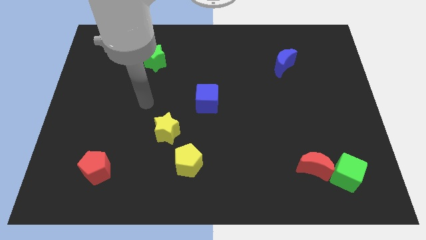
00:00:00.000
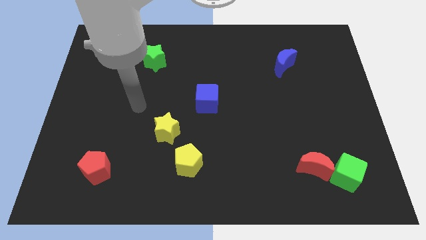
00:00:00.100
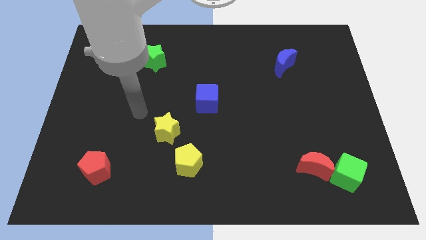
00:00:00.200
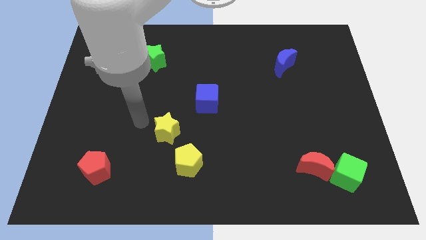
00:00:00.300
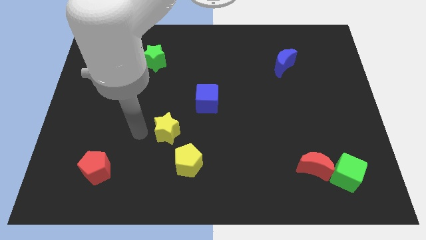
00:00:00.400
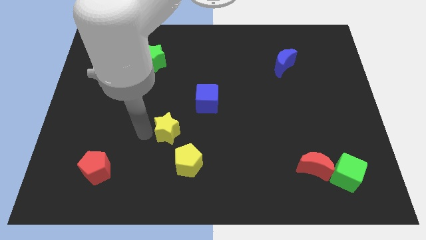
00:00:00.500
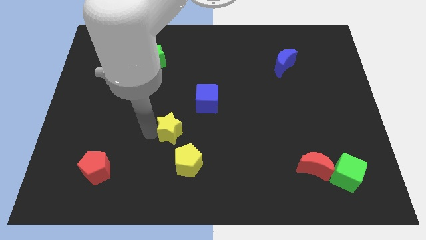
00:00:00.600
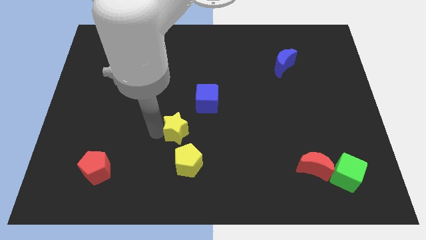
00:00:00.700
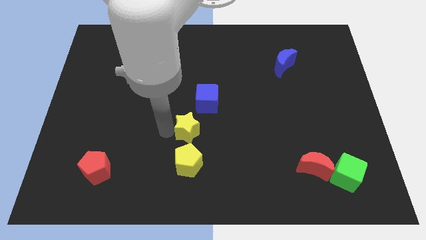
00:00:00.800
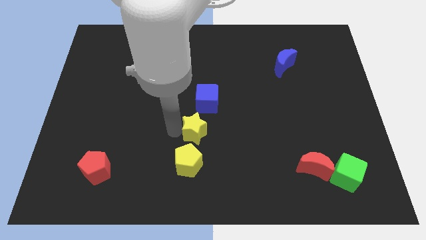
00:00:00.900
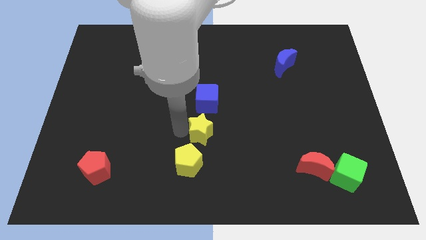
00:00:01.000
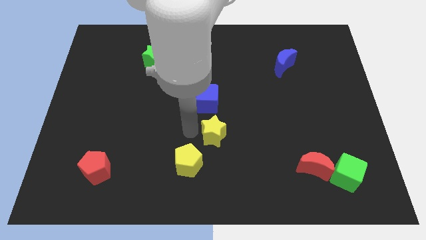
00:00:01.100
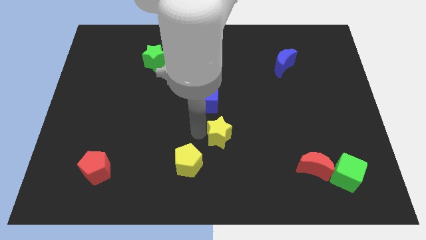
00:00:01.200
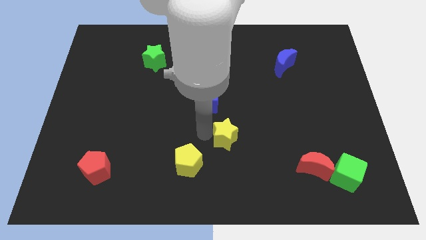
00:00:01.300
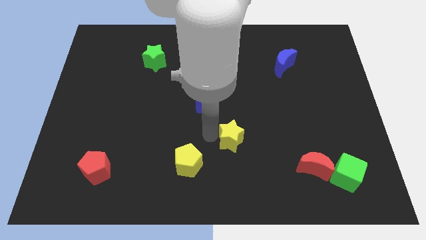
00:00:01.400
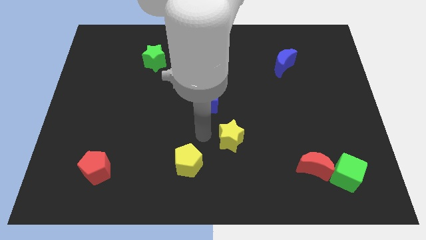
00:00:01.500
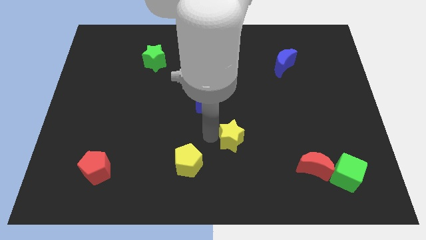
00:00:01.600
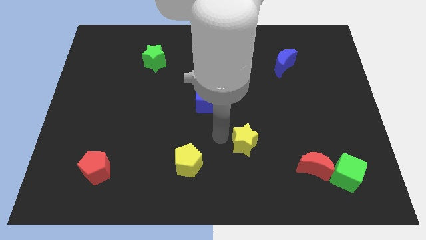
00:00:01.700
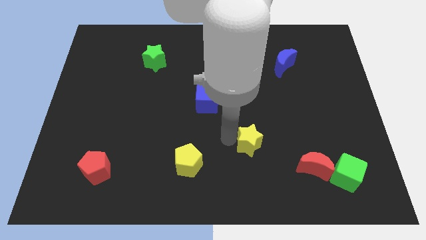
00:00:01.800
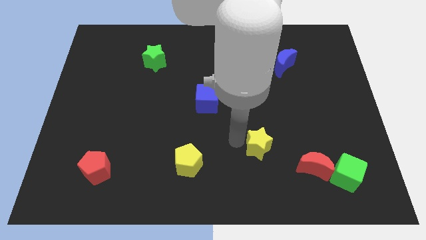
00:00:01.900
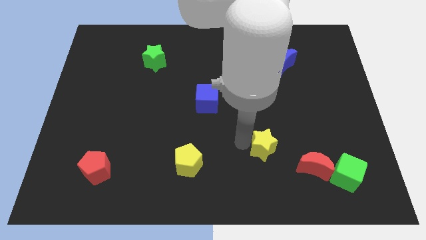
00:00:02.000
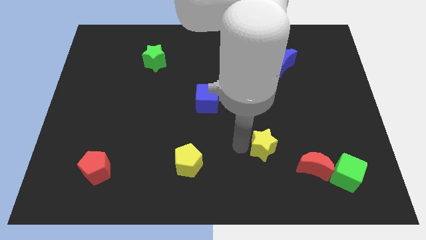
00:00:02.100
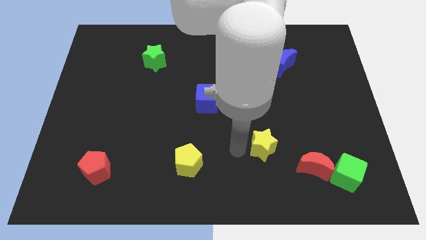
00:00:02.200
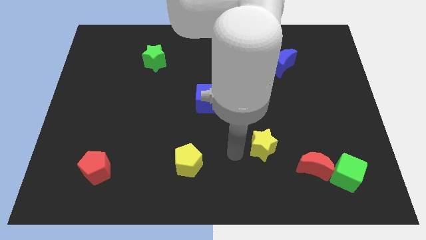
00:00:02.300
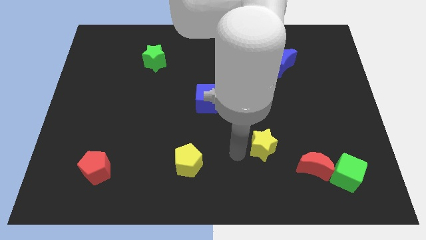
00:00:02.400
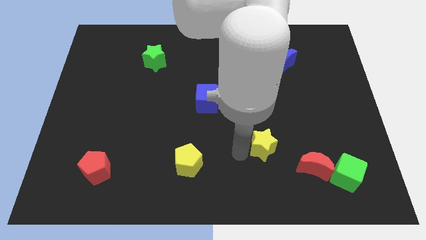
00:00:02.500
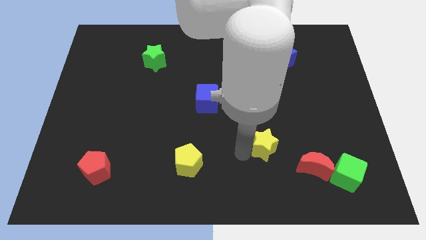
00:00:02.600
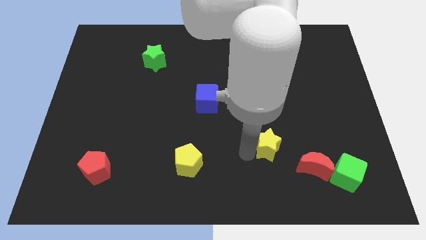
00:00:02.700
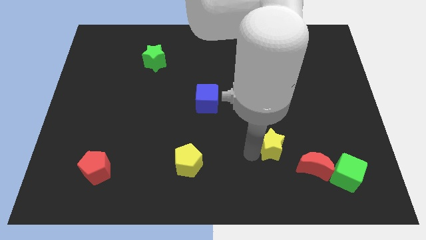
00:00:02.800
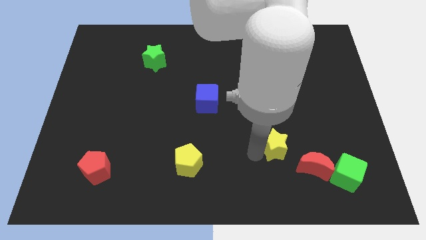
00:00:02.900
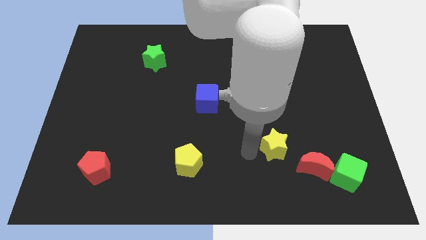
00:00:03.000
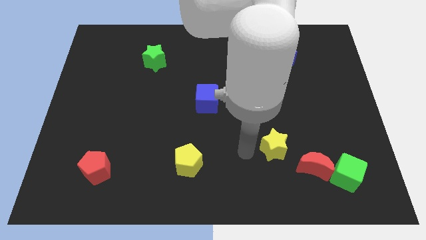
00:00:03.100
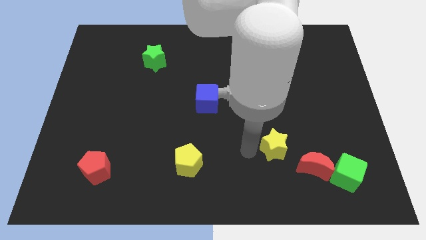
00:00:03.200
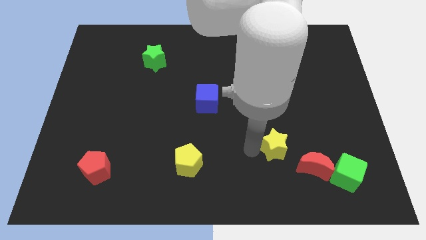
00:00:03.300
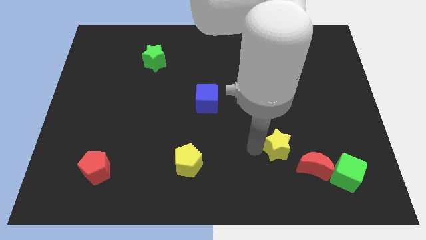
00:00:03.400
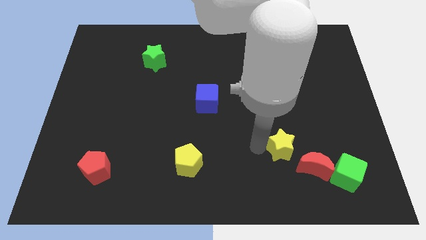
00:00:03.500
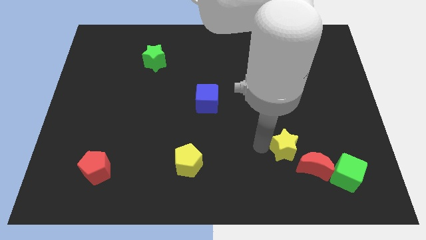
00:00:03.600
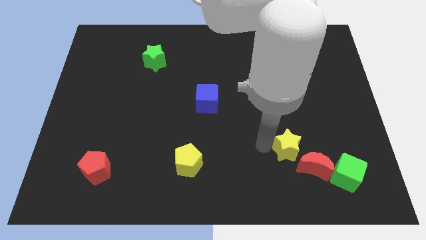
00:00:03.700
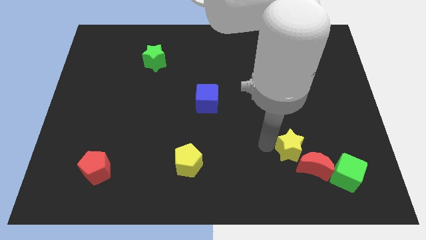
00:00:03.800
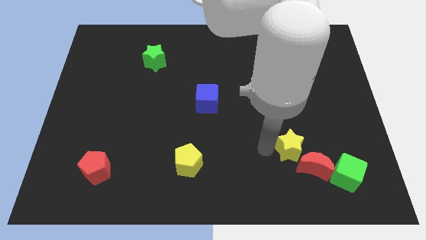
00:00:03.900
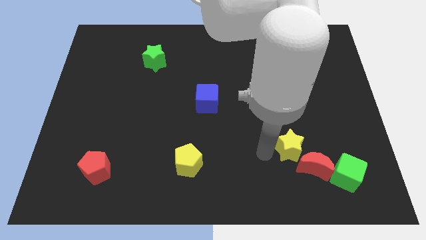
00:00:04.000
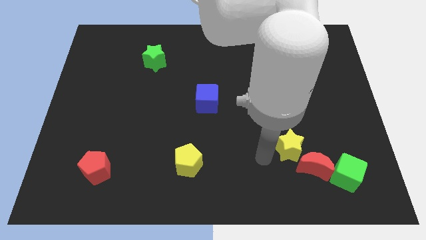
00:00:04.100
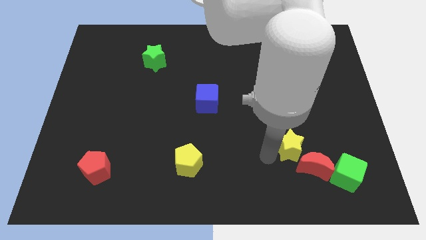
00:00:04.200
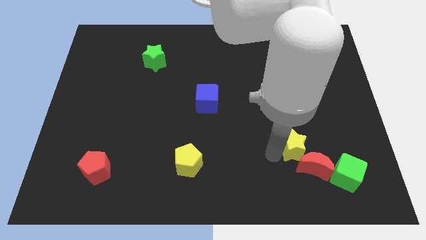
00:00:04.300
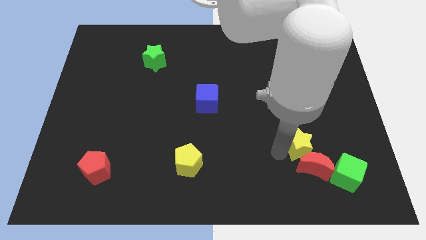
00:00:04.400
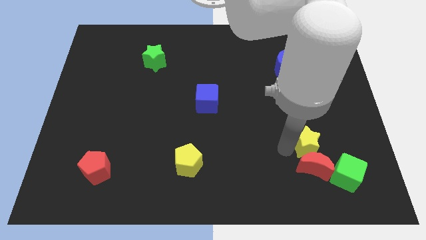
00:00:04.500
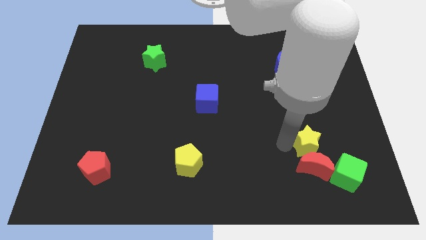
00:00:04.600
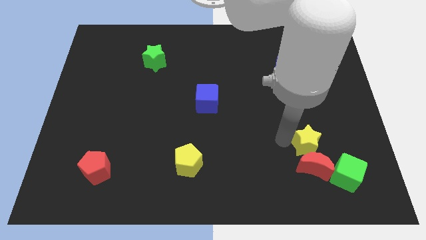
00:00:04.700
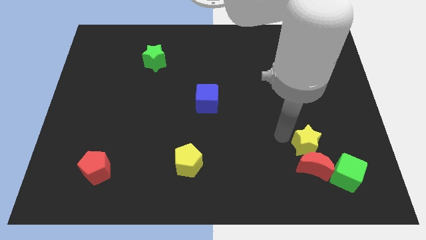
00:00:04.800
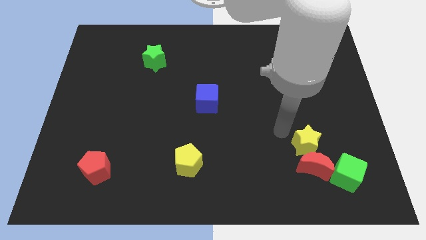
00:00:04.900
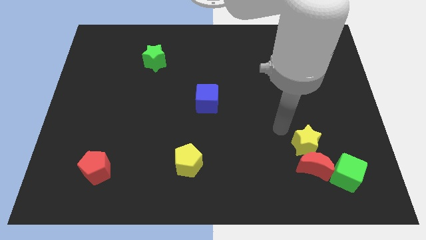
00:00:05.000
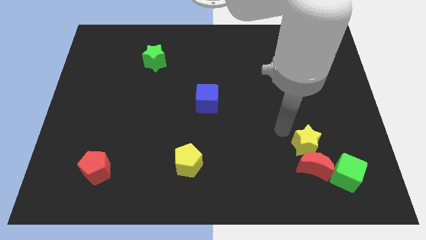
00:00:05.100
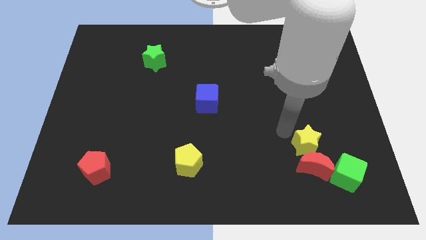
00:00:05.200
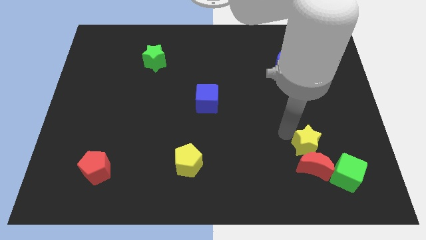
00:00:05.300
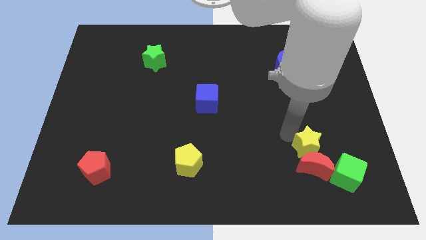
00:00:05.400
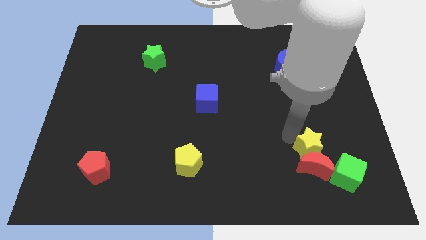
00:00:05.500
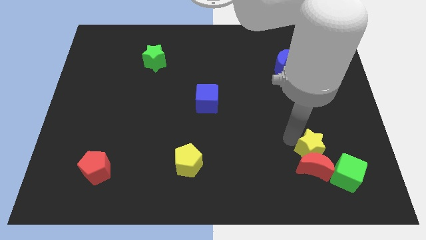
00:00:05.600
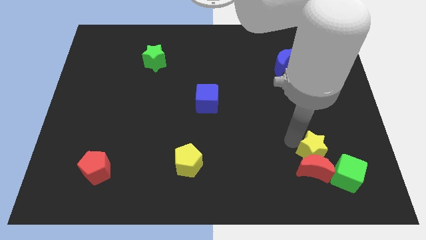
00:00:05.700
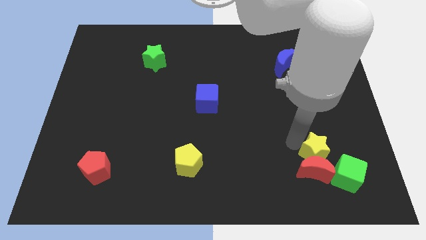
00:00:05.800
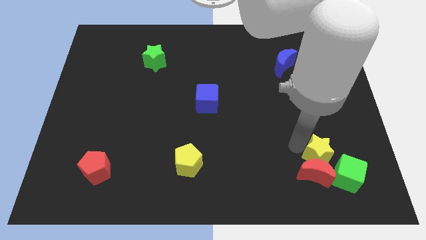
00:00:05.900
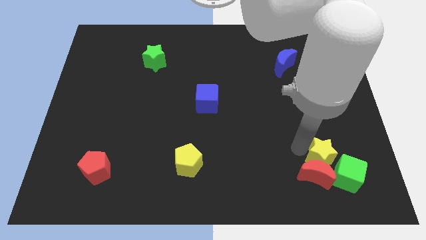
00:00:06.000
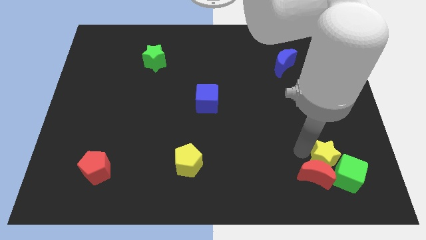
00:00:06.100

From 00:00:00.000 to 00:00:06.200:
slide the yellow star towards the green cube

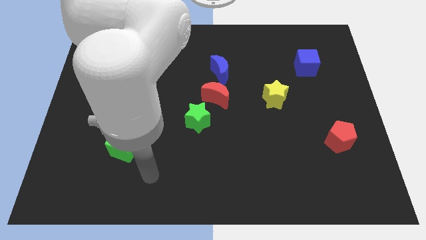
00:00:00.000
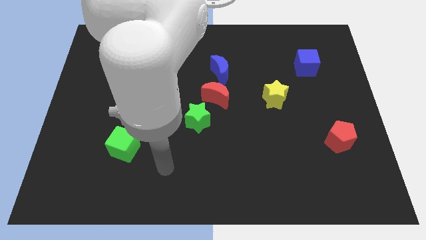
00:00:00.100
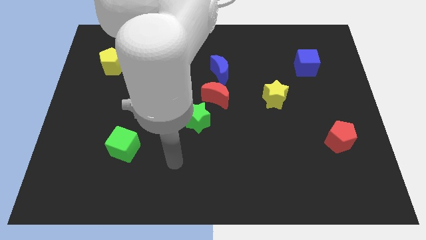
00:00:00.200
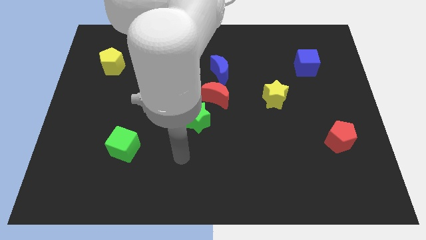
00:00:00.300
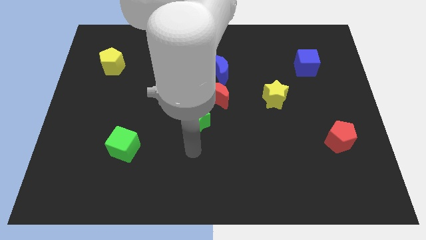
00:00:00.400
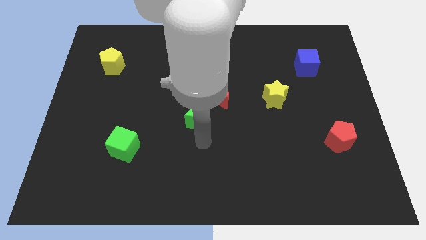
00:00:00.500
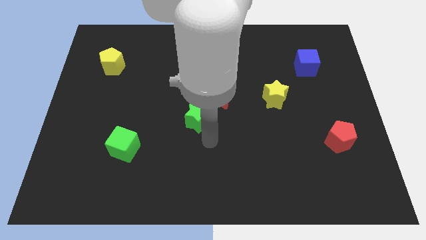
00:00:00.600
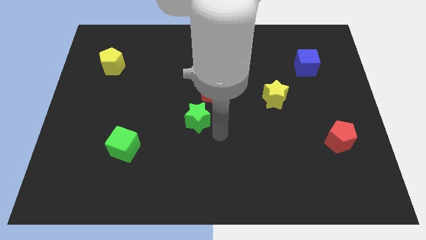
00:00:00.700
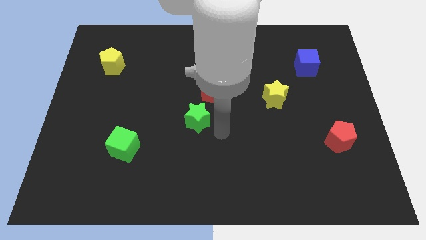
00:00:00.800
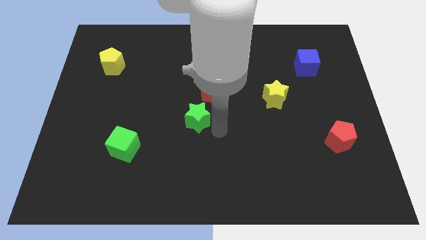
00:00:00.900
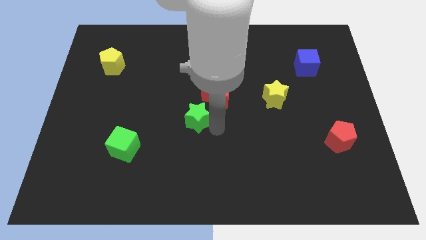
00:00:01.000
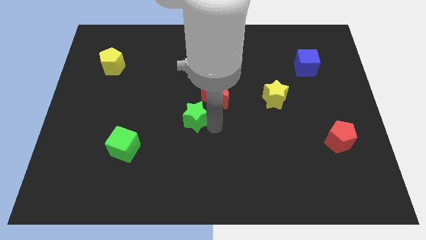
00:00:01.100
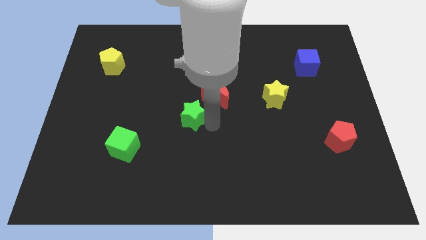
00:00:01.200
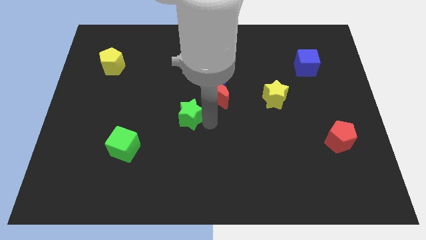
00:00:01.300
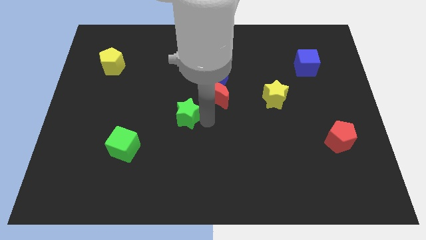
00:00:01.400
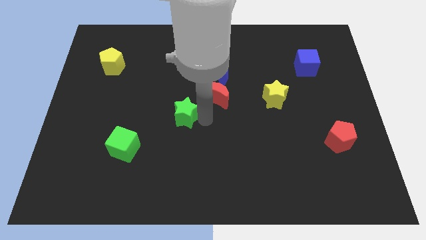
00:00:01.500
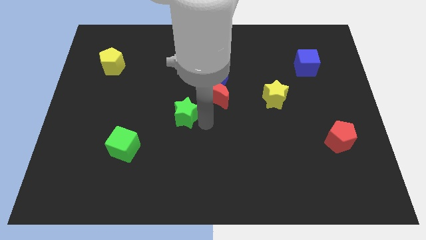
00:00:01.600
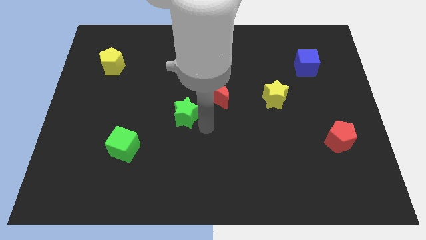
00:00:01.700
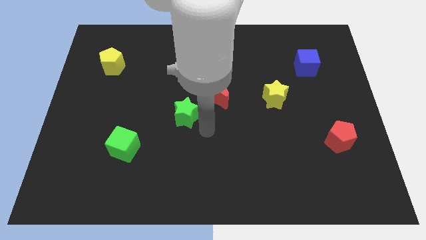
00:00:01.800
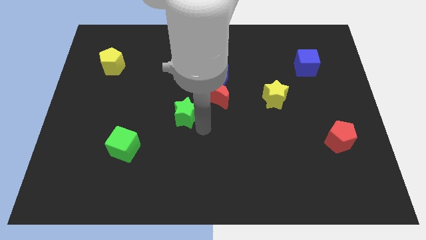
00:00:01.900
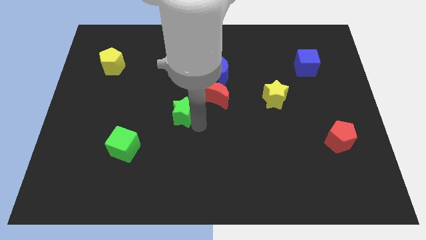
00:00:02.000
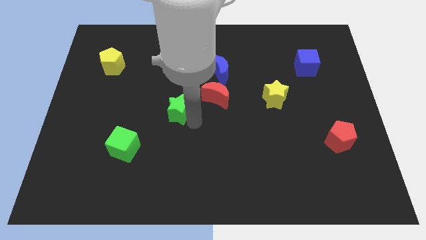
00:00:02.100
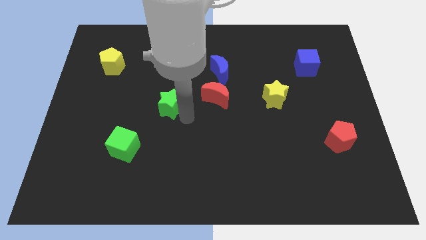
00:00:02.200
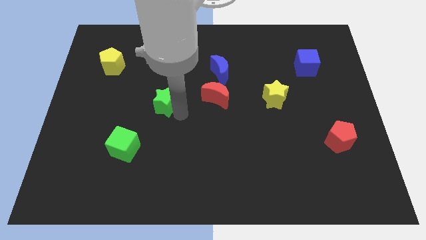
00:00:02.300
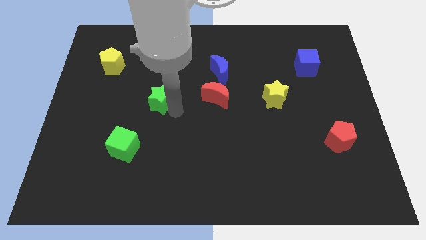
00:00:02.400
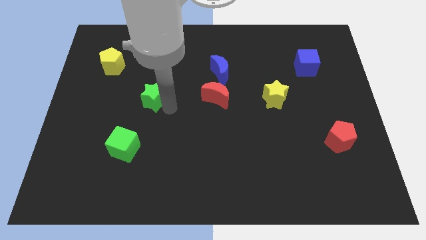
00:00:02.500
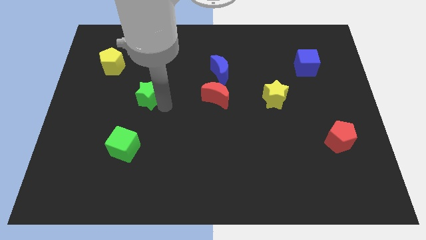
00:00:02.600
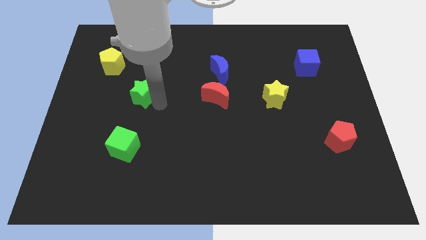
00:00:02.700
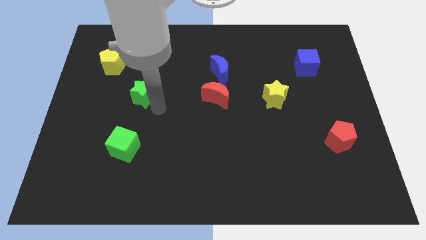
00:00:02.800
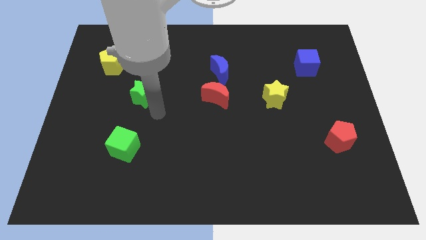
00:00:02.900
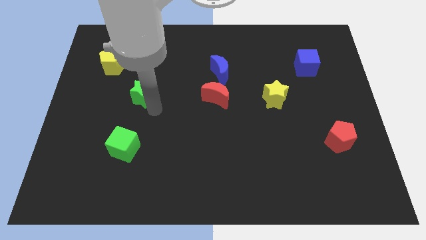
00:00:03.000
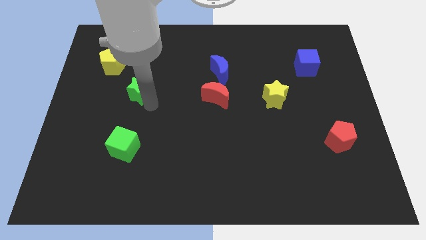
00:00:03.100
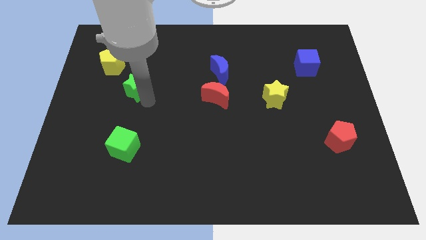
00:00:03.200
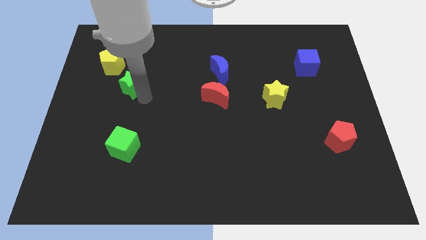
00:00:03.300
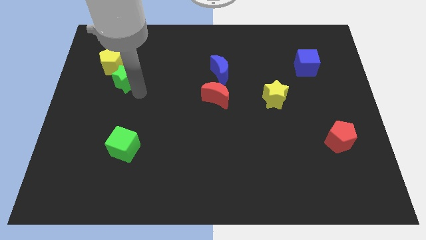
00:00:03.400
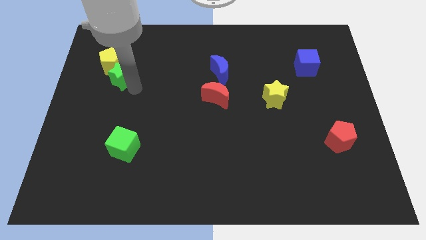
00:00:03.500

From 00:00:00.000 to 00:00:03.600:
push the green star close to the yellow pentagon
